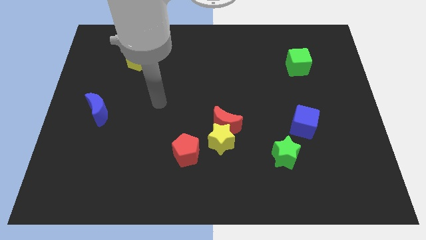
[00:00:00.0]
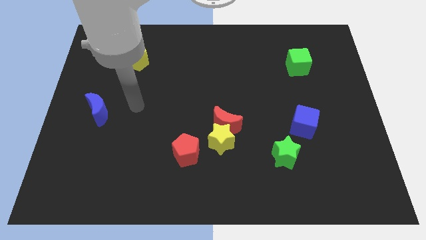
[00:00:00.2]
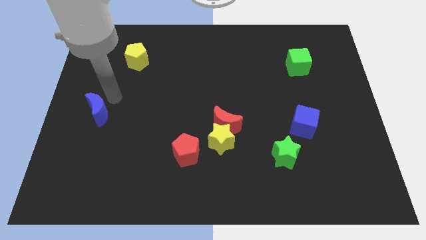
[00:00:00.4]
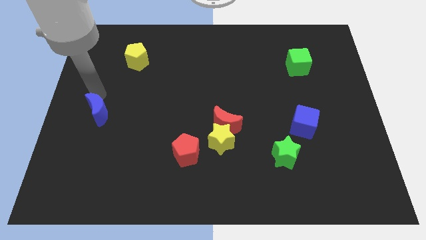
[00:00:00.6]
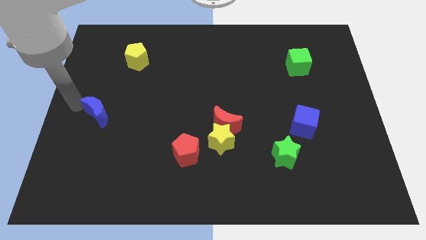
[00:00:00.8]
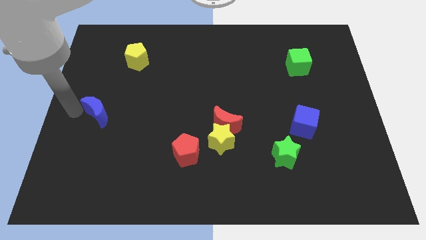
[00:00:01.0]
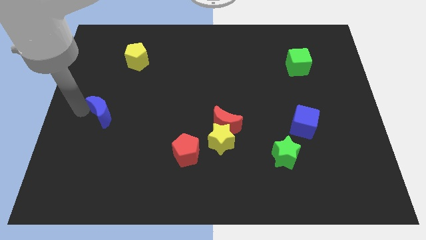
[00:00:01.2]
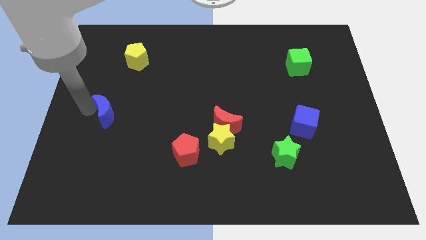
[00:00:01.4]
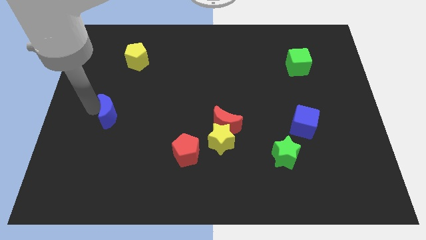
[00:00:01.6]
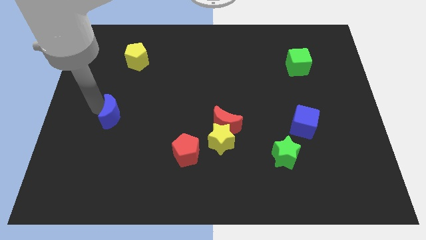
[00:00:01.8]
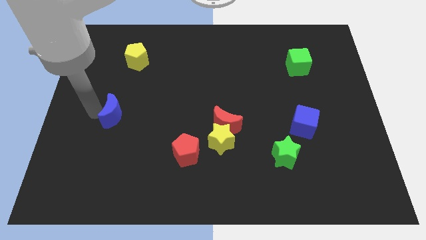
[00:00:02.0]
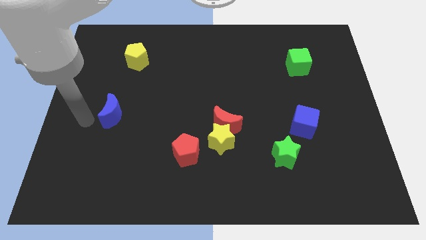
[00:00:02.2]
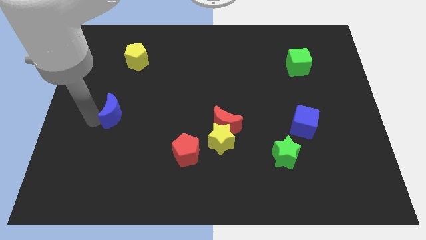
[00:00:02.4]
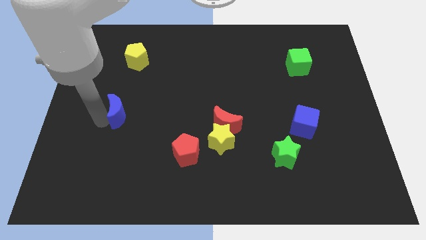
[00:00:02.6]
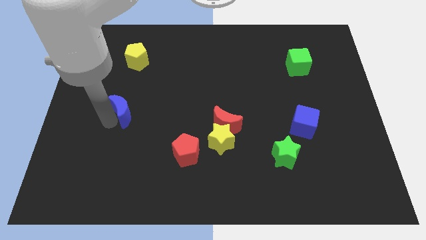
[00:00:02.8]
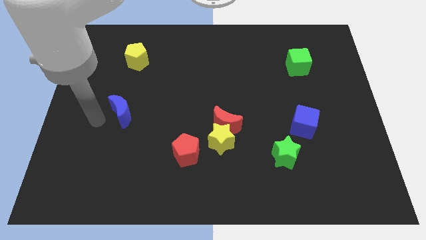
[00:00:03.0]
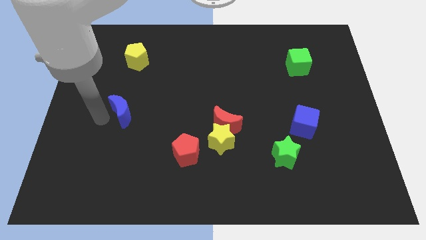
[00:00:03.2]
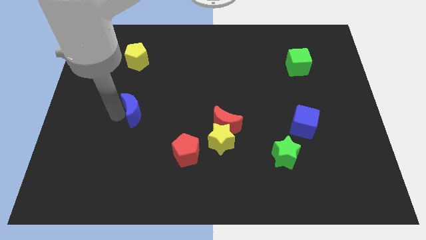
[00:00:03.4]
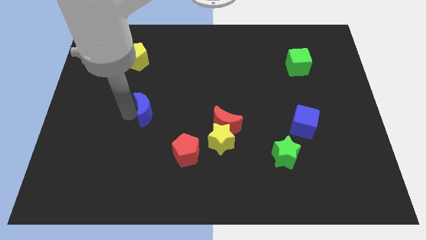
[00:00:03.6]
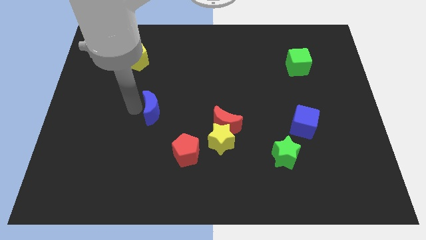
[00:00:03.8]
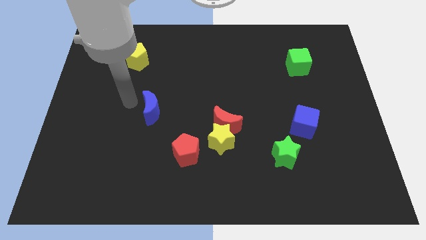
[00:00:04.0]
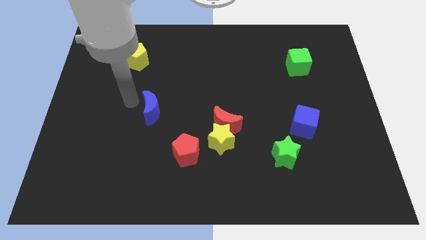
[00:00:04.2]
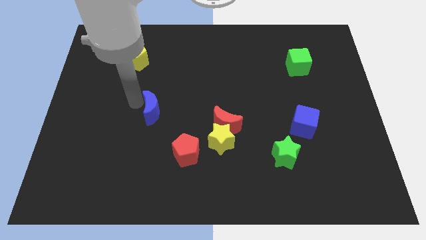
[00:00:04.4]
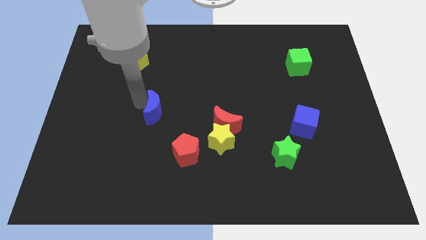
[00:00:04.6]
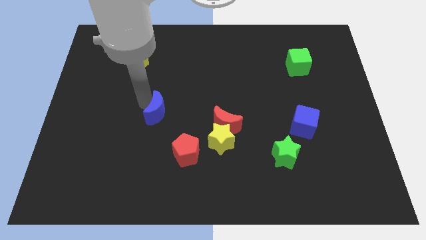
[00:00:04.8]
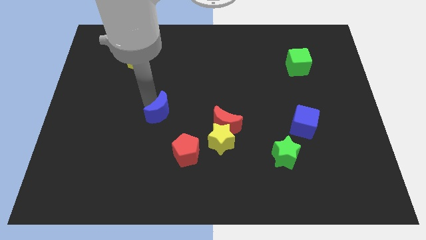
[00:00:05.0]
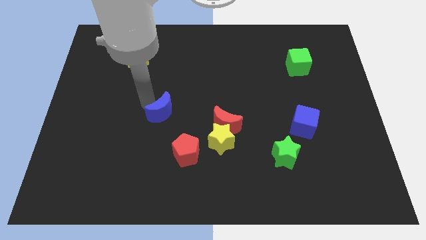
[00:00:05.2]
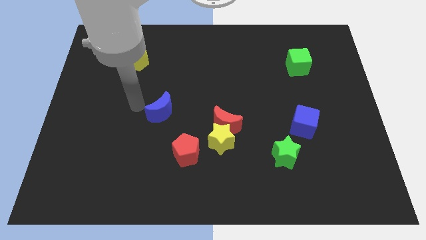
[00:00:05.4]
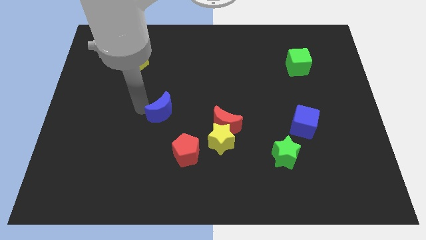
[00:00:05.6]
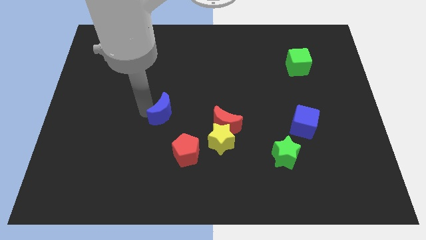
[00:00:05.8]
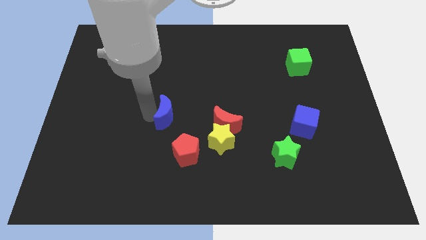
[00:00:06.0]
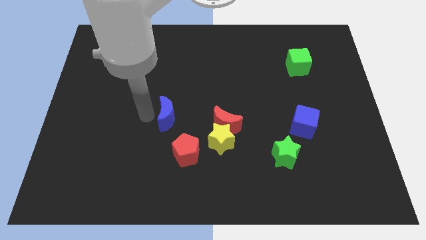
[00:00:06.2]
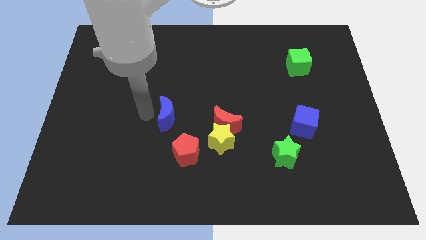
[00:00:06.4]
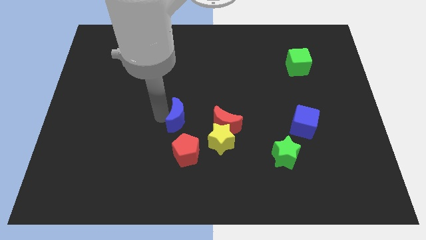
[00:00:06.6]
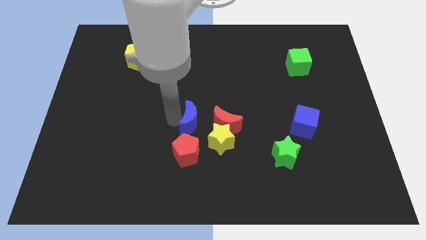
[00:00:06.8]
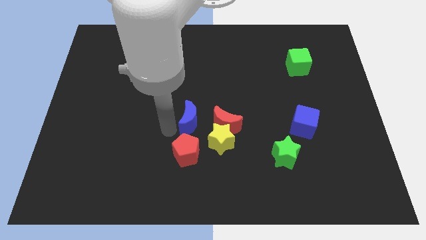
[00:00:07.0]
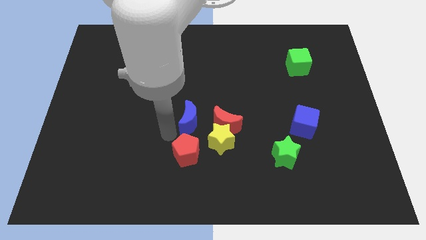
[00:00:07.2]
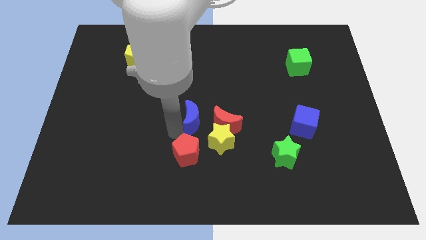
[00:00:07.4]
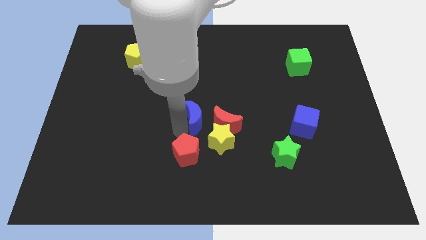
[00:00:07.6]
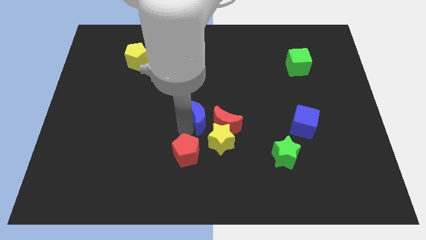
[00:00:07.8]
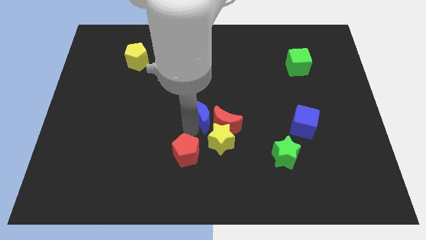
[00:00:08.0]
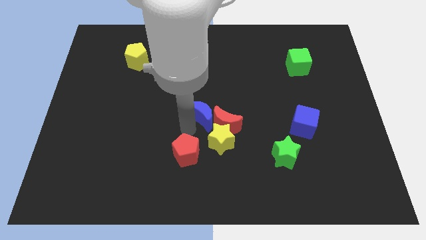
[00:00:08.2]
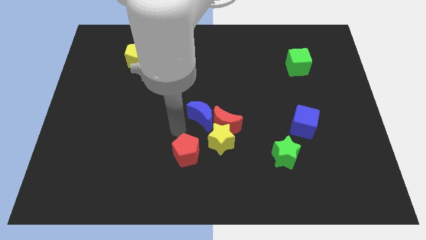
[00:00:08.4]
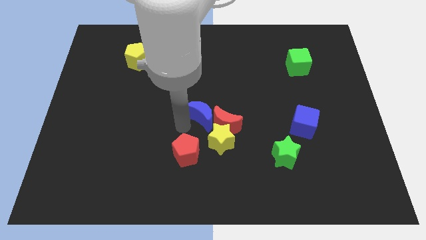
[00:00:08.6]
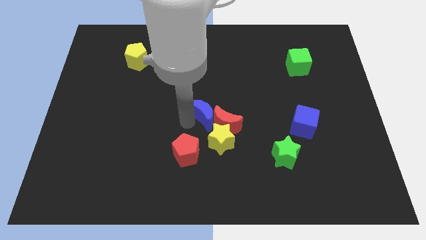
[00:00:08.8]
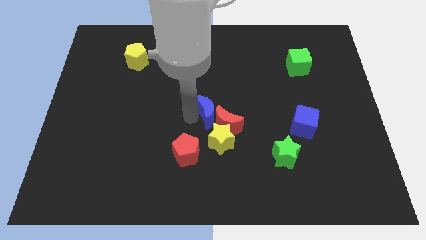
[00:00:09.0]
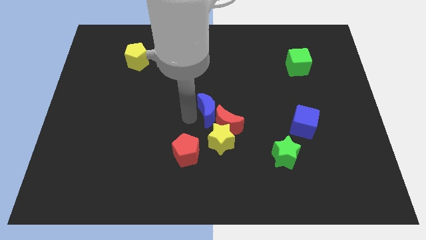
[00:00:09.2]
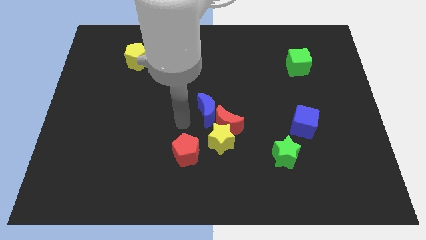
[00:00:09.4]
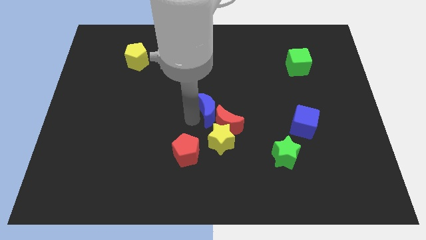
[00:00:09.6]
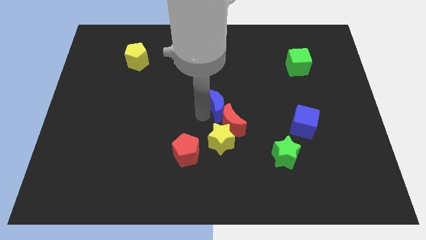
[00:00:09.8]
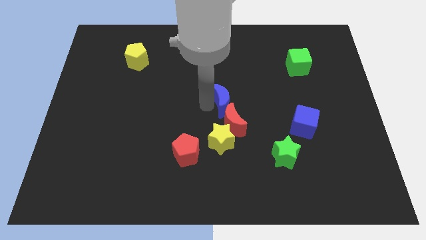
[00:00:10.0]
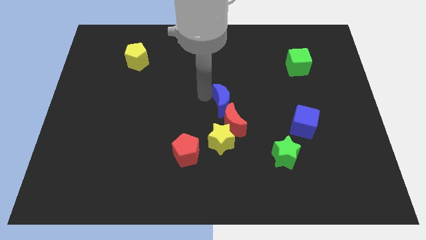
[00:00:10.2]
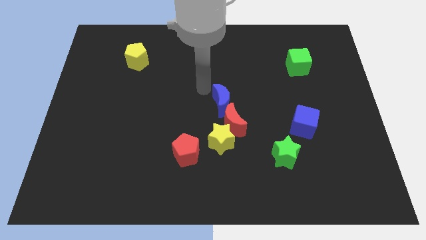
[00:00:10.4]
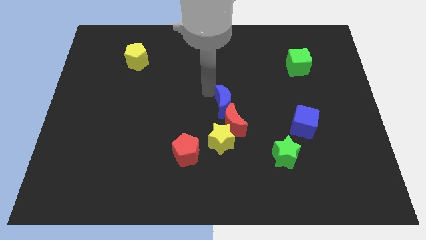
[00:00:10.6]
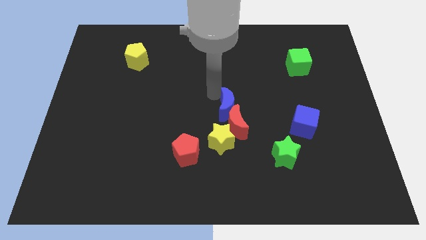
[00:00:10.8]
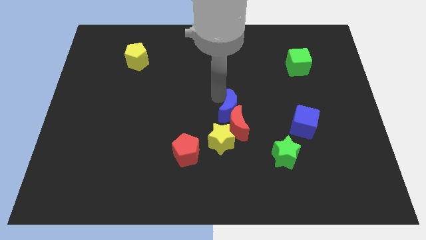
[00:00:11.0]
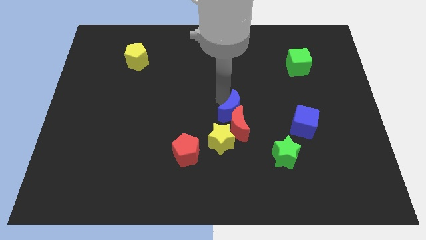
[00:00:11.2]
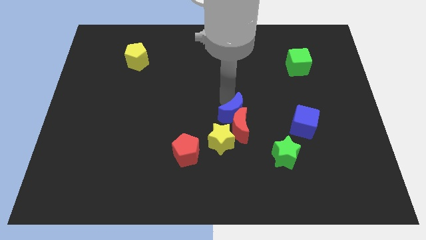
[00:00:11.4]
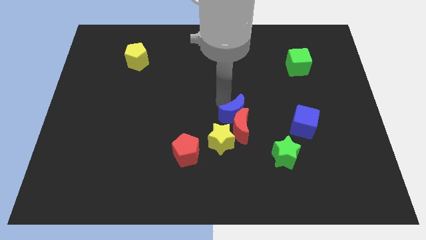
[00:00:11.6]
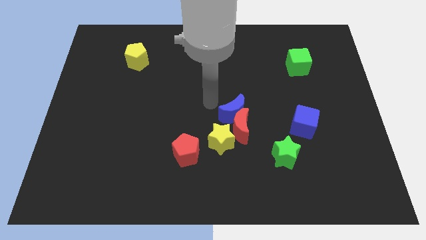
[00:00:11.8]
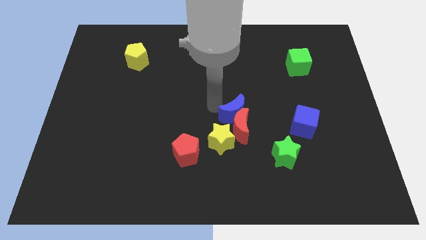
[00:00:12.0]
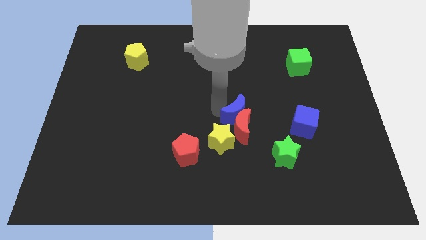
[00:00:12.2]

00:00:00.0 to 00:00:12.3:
move the blue moon just left of the blue cube

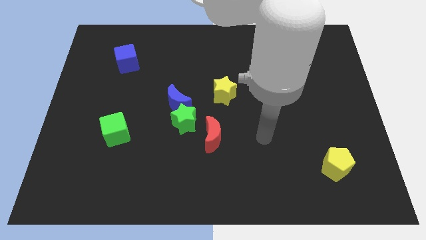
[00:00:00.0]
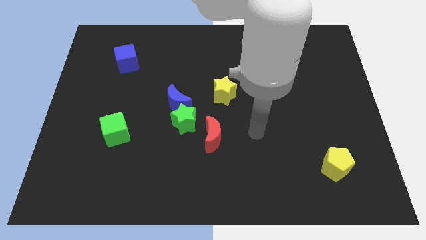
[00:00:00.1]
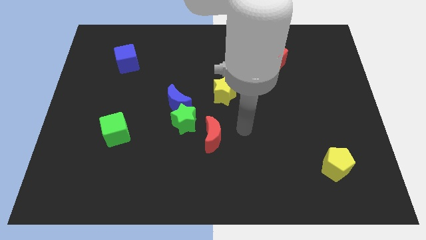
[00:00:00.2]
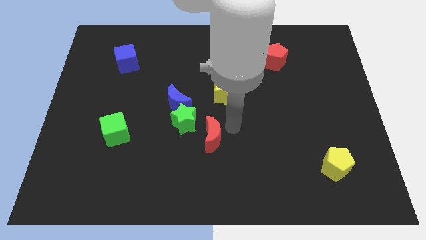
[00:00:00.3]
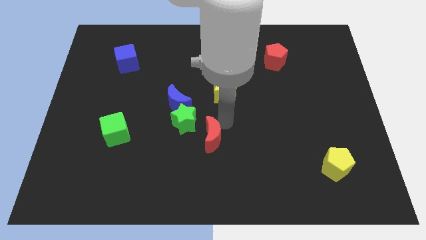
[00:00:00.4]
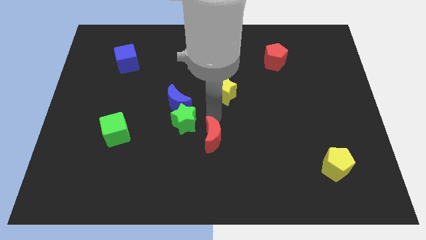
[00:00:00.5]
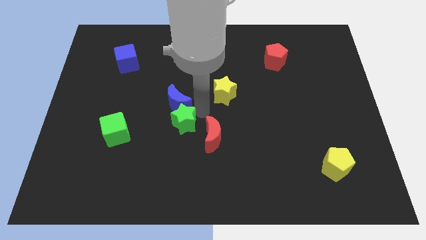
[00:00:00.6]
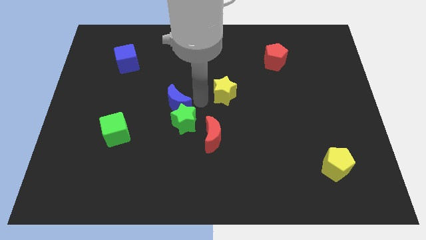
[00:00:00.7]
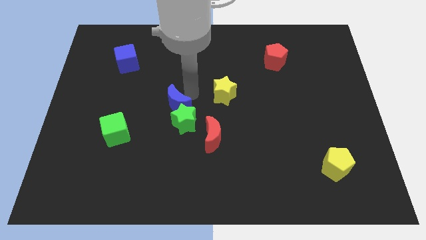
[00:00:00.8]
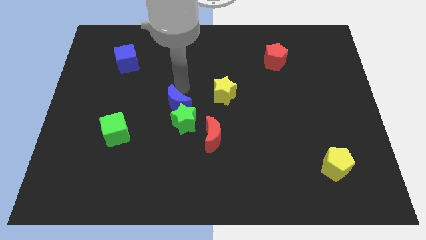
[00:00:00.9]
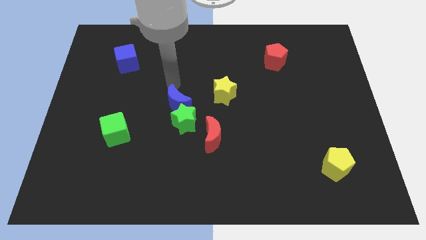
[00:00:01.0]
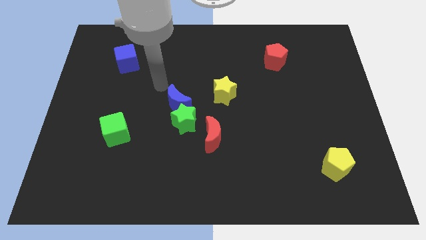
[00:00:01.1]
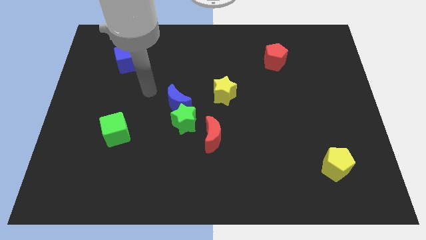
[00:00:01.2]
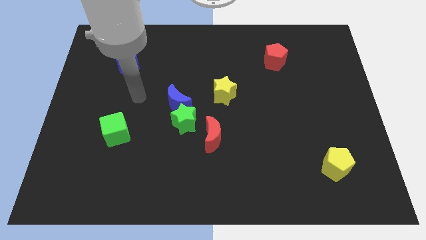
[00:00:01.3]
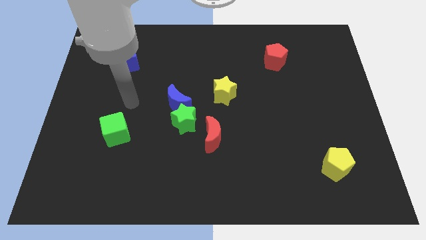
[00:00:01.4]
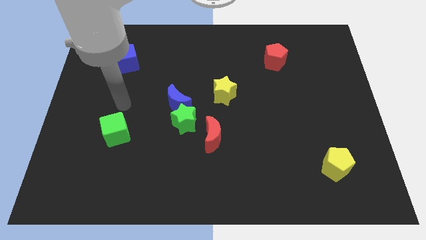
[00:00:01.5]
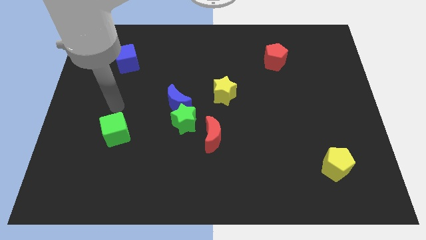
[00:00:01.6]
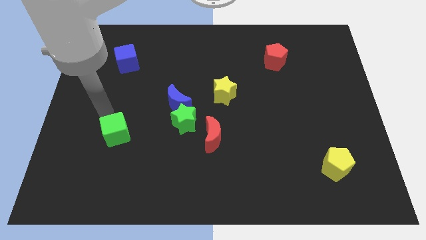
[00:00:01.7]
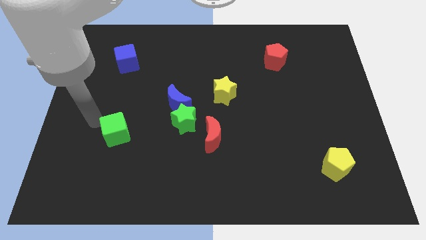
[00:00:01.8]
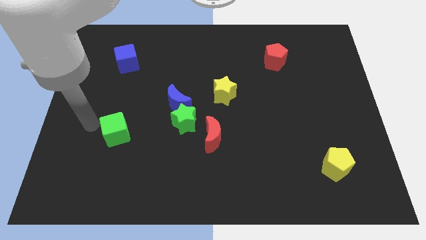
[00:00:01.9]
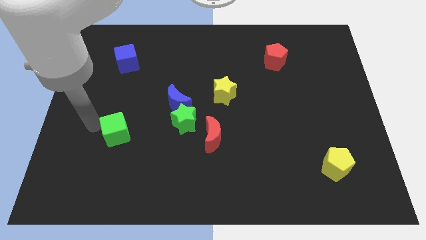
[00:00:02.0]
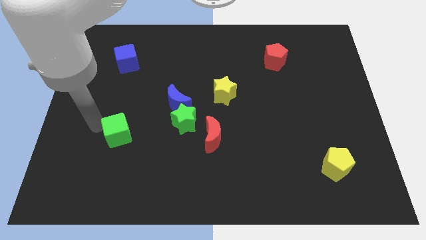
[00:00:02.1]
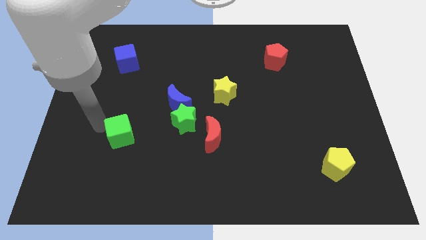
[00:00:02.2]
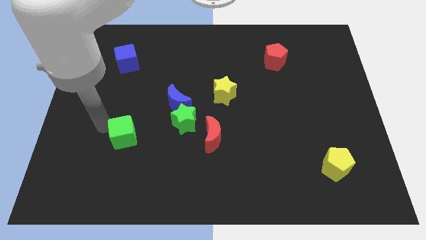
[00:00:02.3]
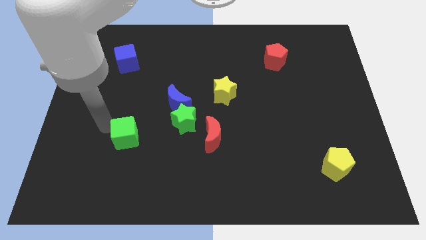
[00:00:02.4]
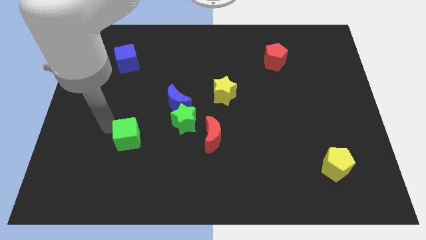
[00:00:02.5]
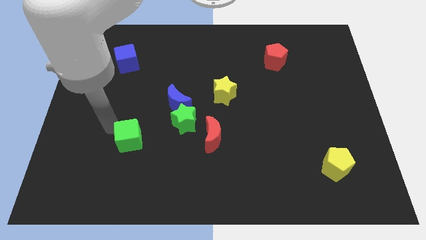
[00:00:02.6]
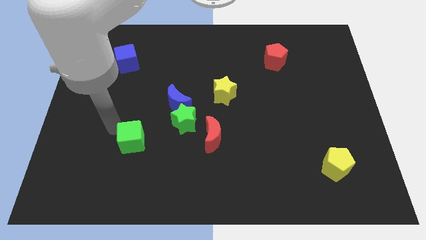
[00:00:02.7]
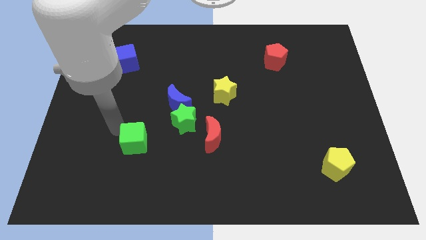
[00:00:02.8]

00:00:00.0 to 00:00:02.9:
push the green cube diagonally down and to the left of the green star
